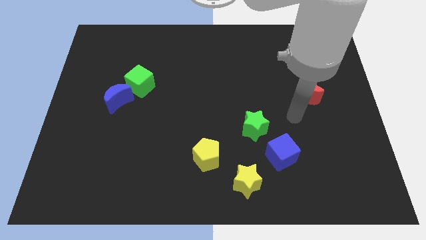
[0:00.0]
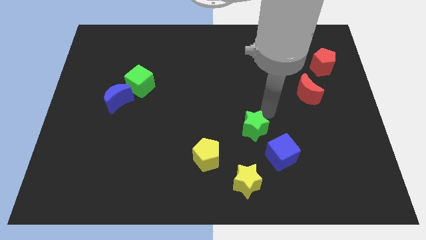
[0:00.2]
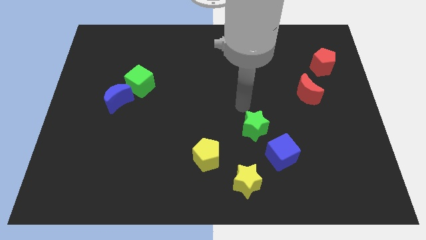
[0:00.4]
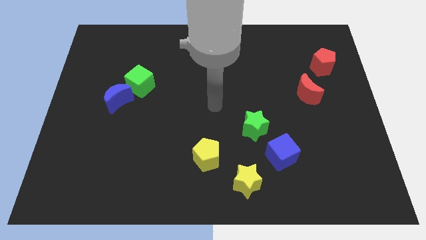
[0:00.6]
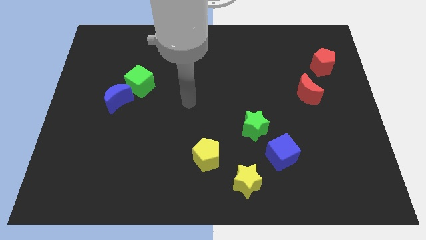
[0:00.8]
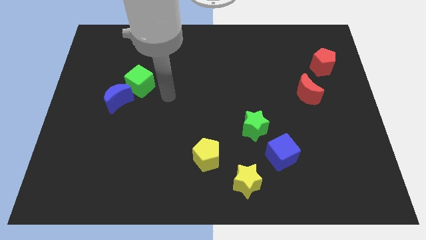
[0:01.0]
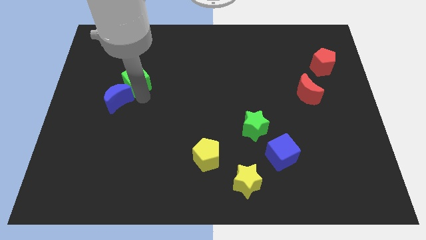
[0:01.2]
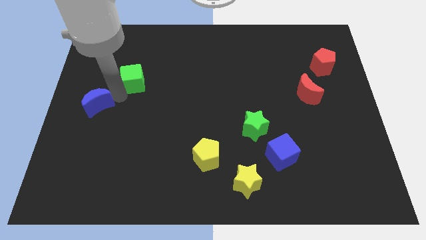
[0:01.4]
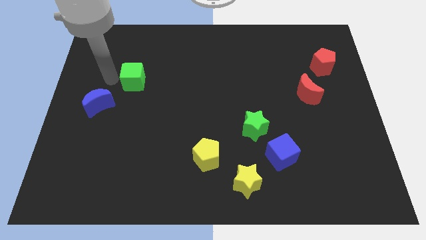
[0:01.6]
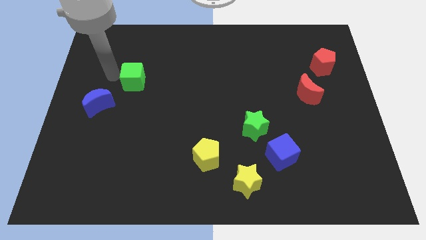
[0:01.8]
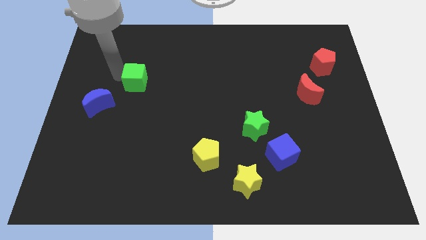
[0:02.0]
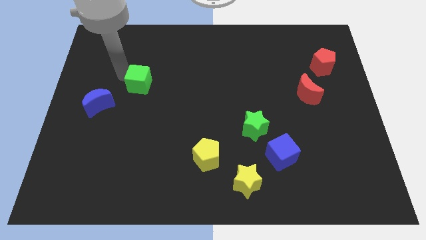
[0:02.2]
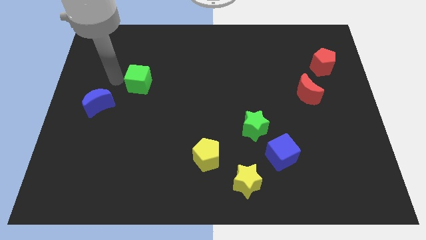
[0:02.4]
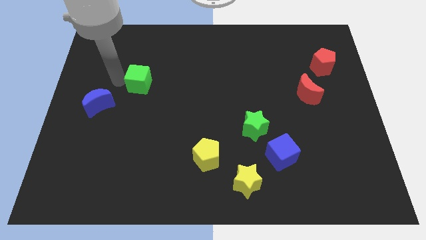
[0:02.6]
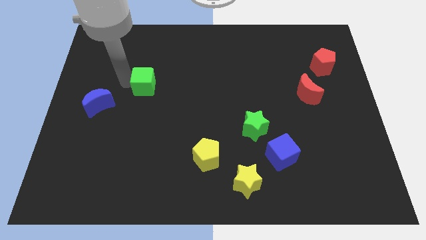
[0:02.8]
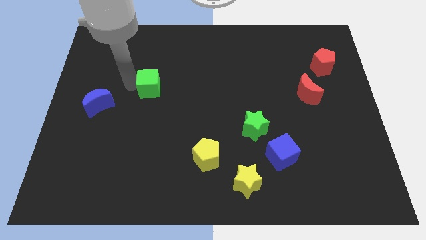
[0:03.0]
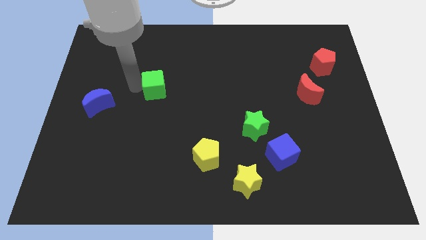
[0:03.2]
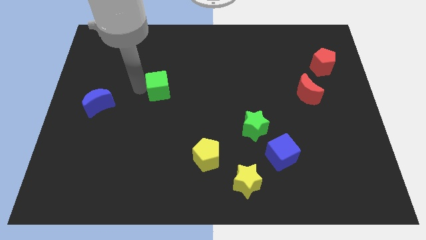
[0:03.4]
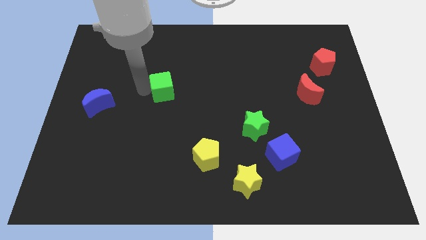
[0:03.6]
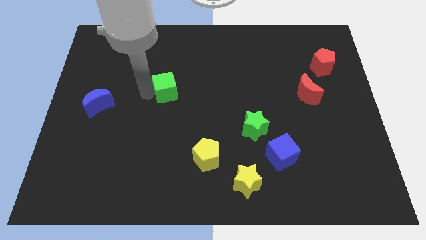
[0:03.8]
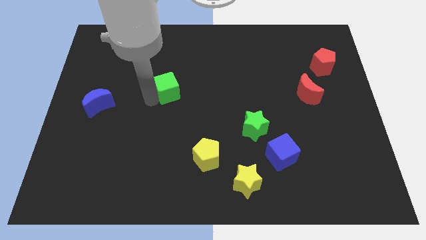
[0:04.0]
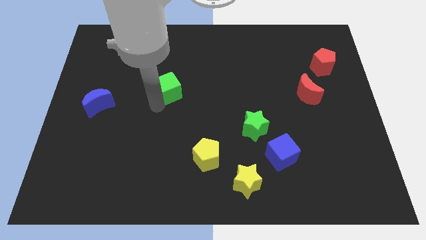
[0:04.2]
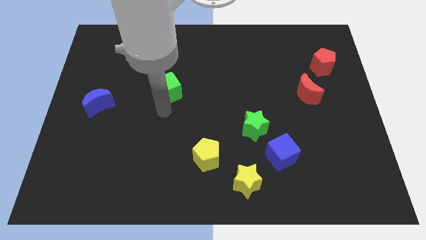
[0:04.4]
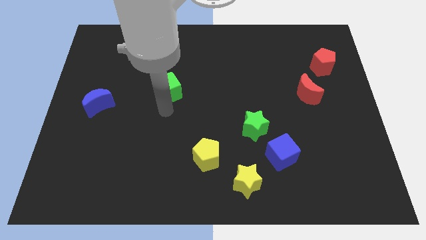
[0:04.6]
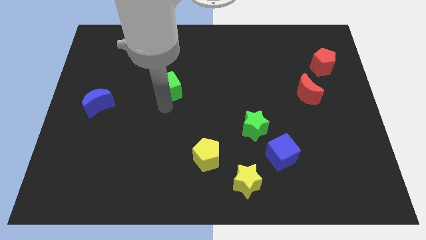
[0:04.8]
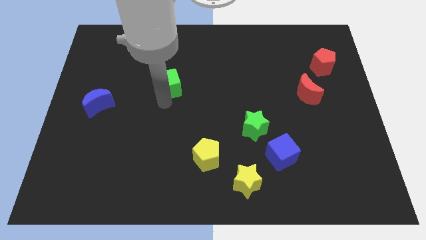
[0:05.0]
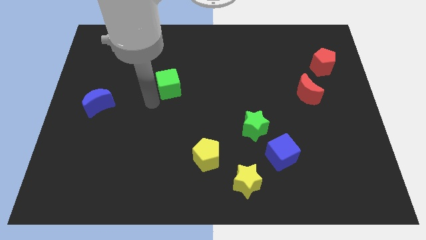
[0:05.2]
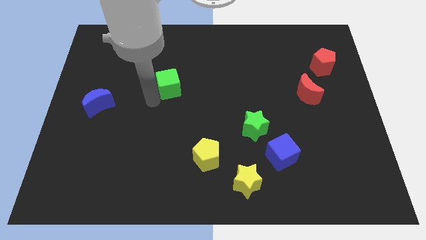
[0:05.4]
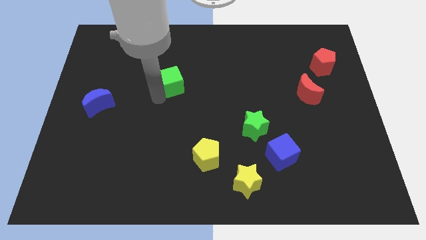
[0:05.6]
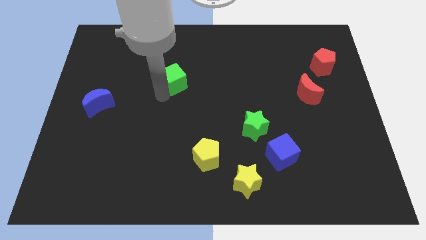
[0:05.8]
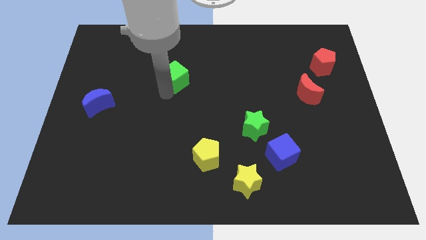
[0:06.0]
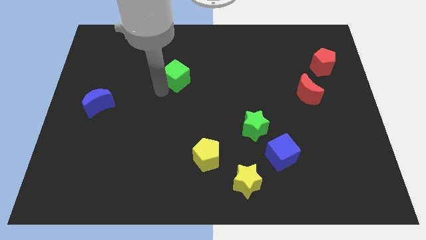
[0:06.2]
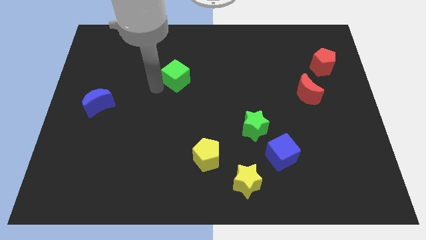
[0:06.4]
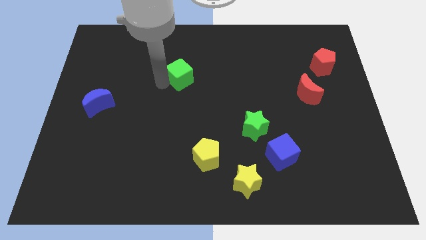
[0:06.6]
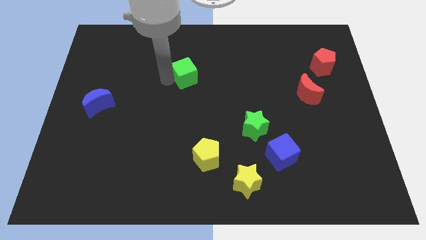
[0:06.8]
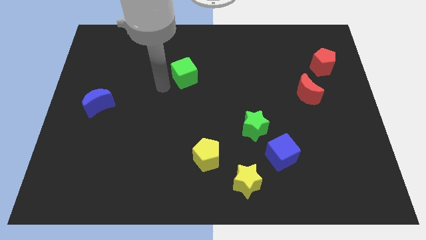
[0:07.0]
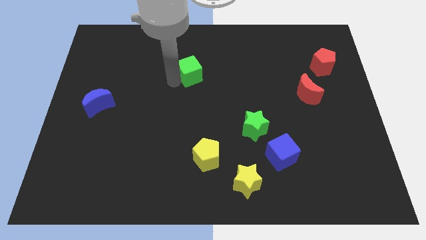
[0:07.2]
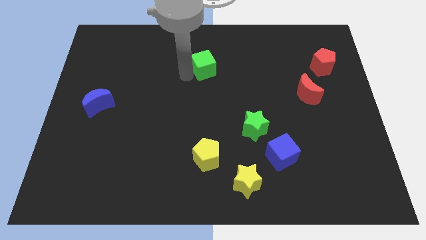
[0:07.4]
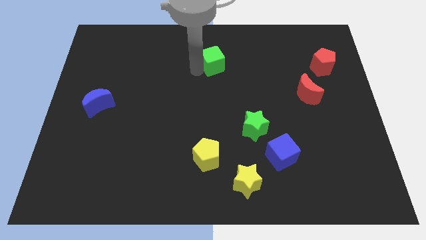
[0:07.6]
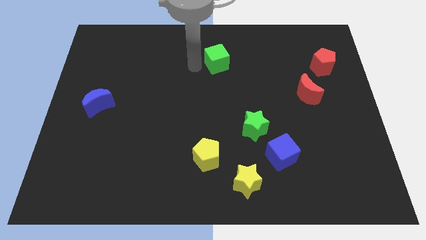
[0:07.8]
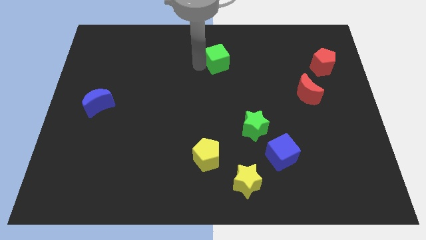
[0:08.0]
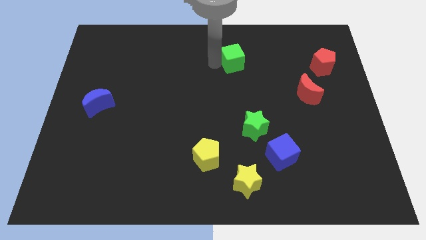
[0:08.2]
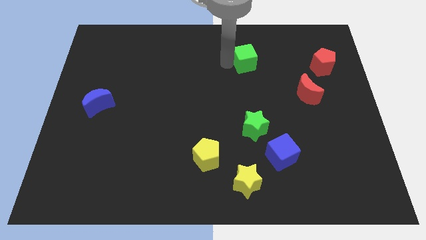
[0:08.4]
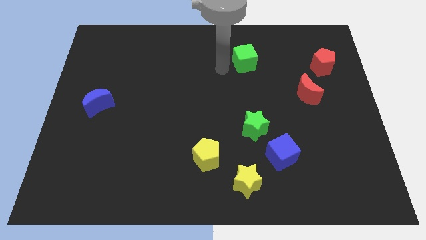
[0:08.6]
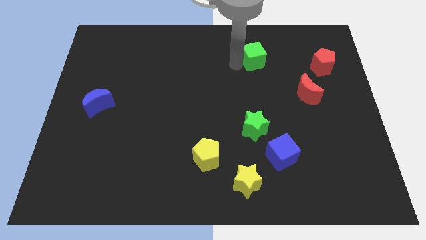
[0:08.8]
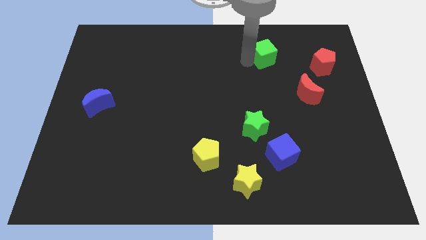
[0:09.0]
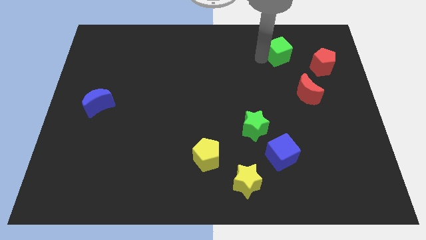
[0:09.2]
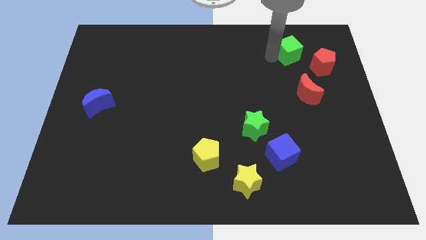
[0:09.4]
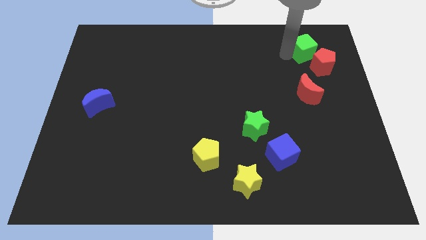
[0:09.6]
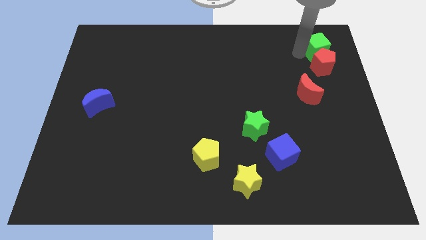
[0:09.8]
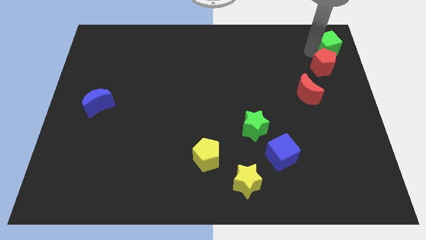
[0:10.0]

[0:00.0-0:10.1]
move the green cube to the top right of the board

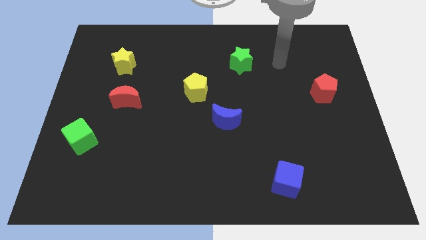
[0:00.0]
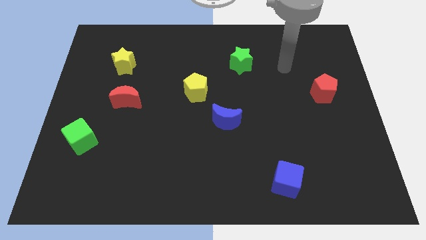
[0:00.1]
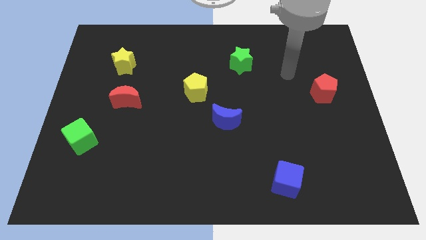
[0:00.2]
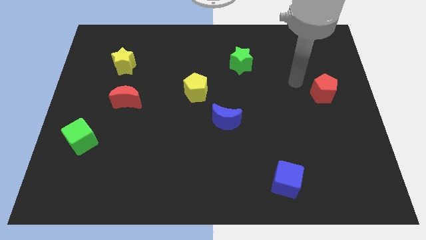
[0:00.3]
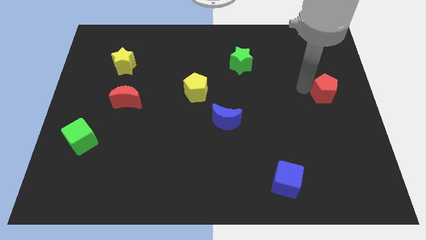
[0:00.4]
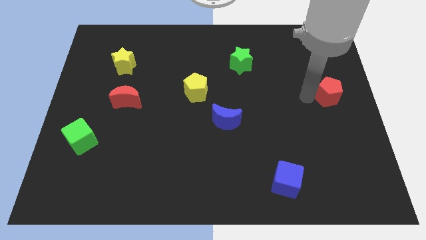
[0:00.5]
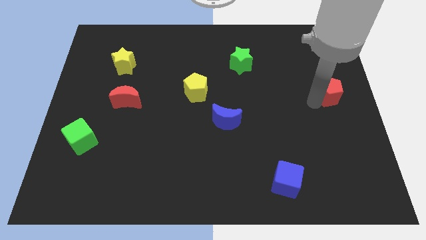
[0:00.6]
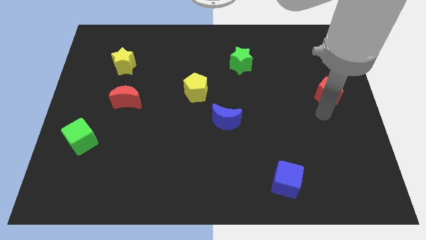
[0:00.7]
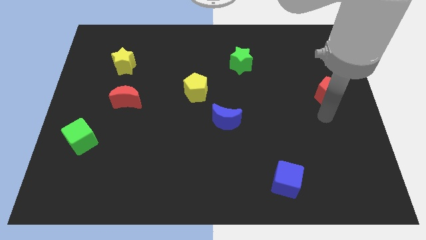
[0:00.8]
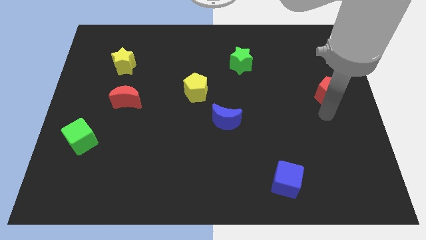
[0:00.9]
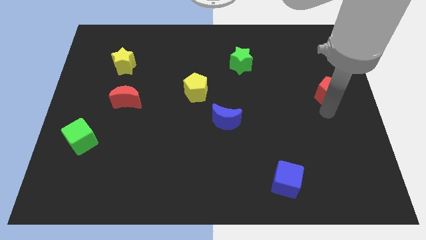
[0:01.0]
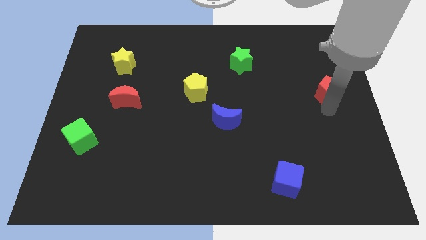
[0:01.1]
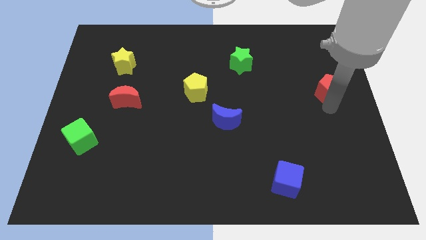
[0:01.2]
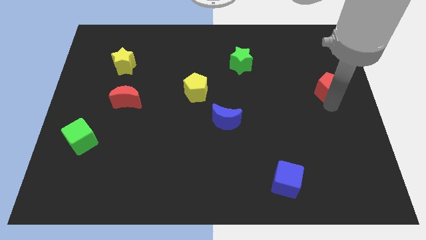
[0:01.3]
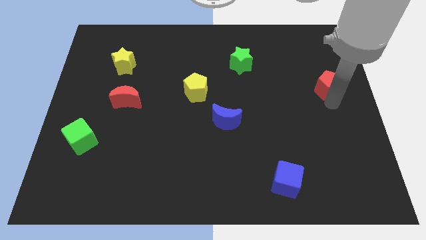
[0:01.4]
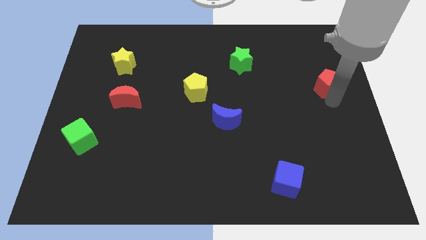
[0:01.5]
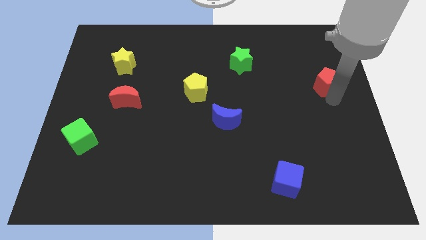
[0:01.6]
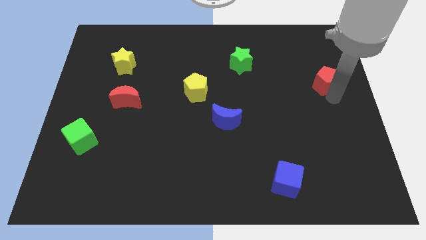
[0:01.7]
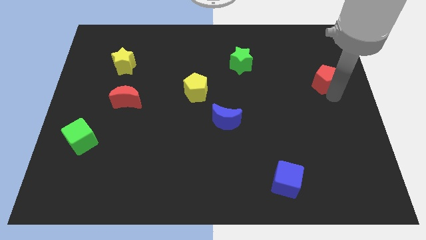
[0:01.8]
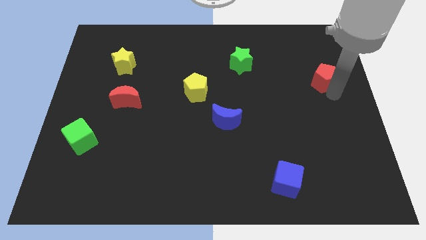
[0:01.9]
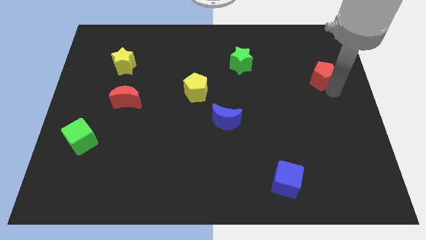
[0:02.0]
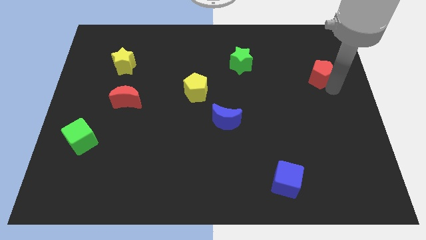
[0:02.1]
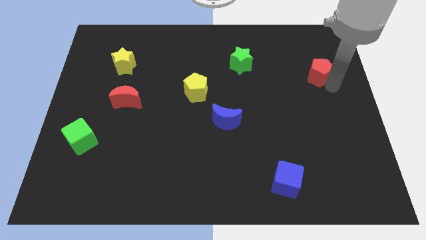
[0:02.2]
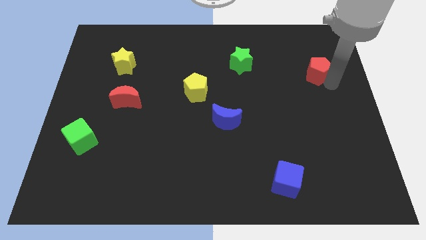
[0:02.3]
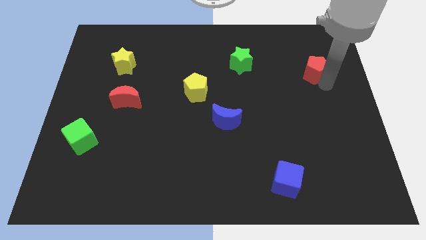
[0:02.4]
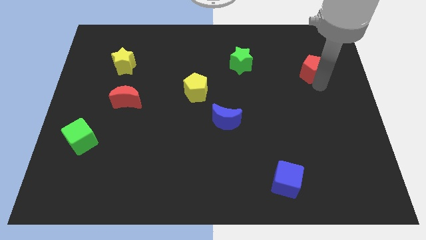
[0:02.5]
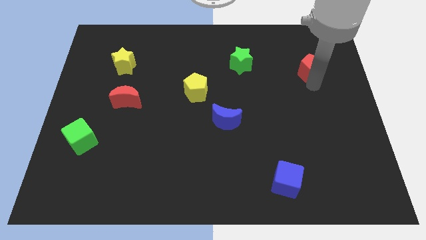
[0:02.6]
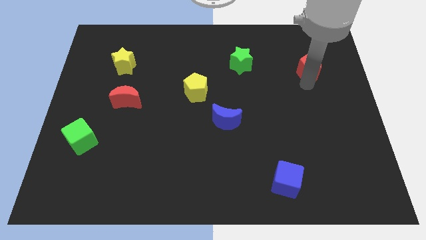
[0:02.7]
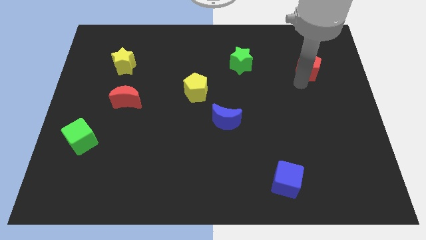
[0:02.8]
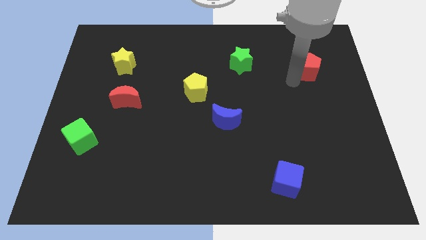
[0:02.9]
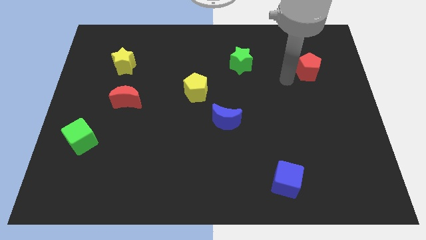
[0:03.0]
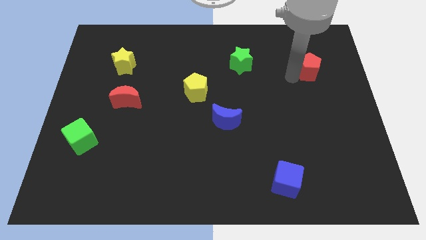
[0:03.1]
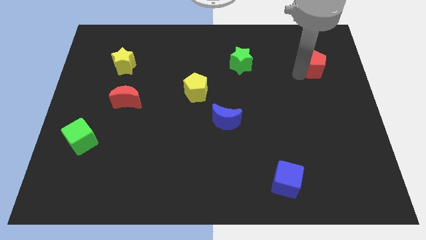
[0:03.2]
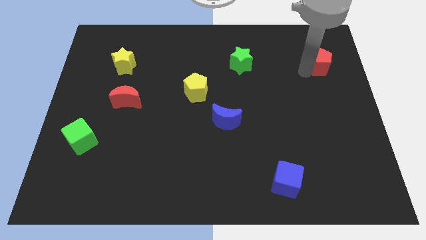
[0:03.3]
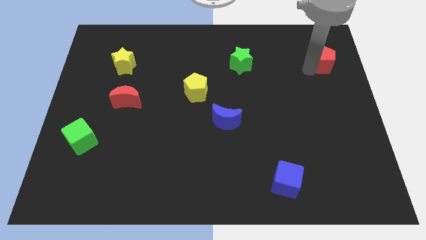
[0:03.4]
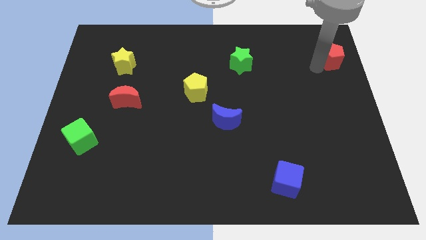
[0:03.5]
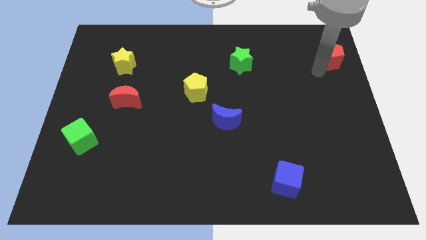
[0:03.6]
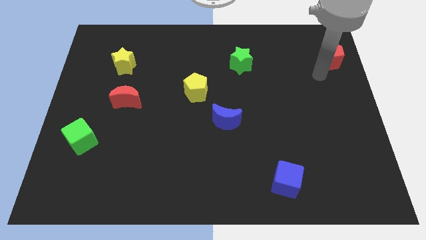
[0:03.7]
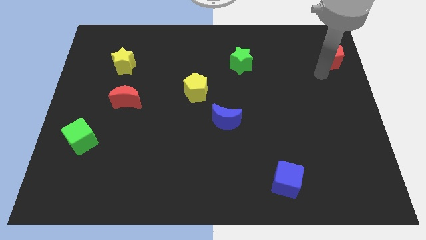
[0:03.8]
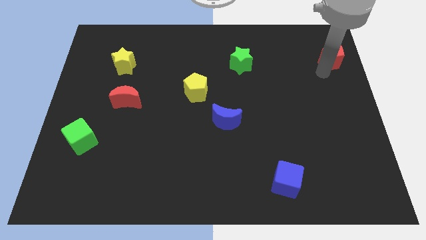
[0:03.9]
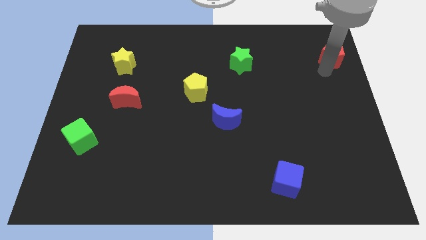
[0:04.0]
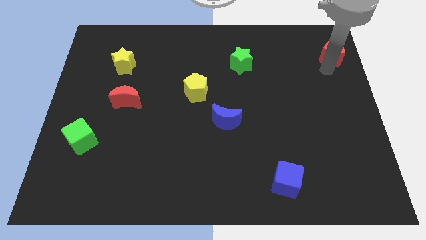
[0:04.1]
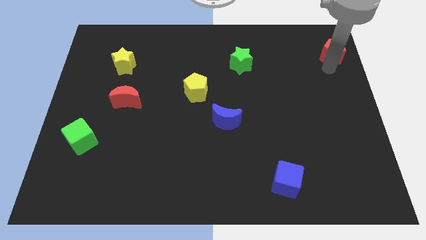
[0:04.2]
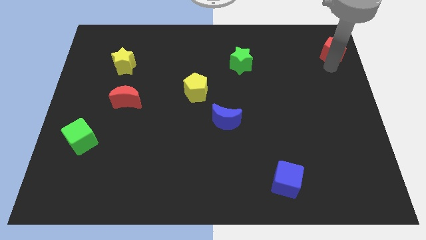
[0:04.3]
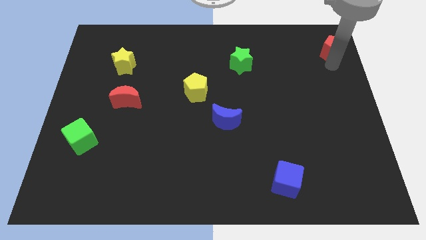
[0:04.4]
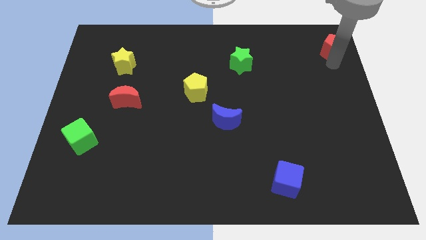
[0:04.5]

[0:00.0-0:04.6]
move the red pentagon to the upper right corner
